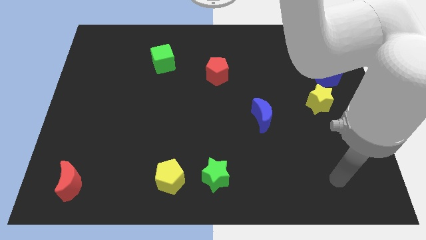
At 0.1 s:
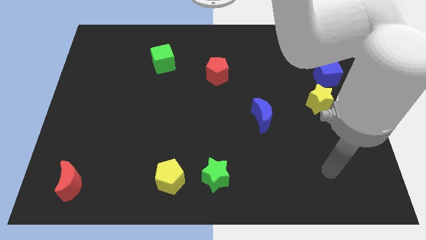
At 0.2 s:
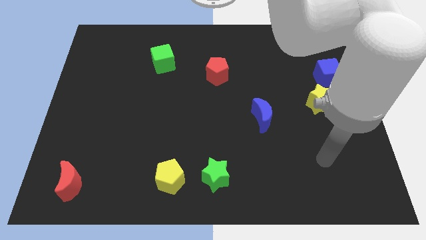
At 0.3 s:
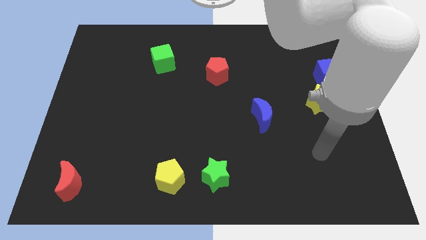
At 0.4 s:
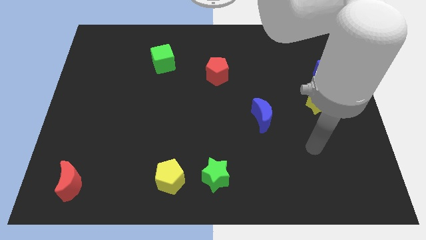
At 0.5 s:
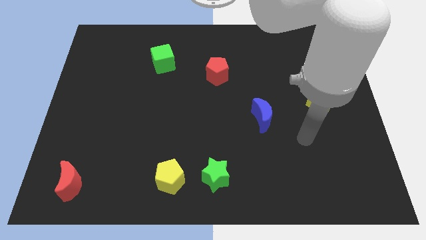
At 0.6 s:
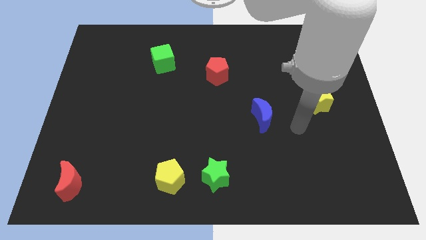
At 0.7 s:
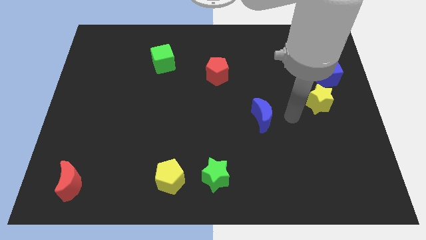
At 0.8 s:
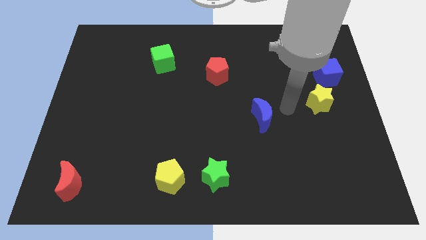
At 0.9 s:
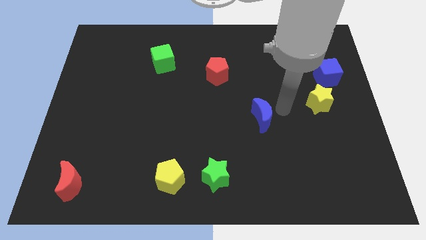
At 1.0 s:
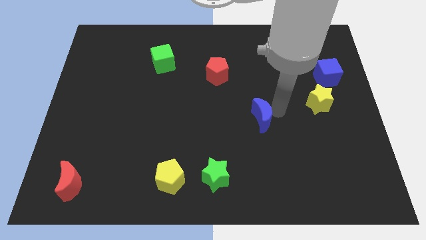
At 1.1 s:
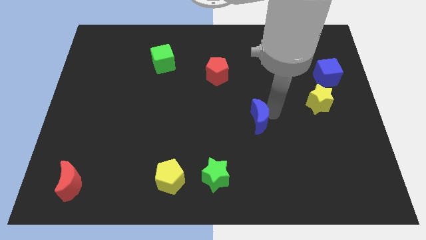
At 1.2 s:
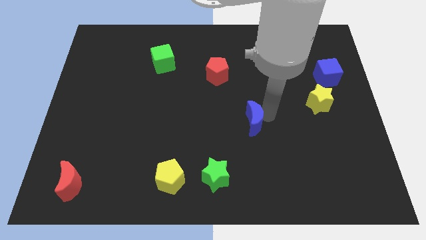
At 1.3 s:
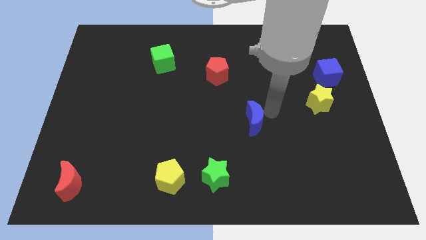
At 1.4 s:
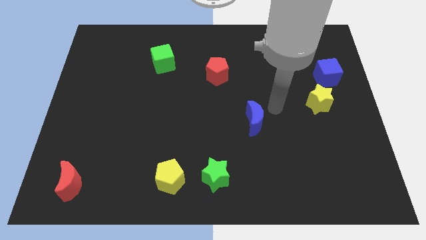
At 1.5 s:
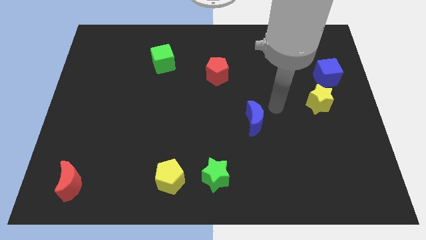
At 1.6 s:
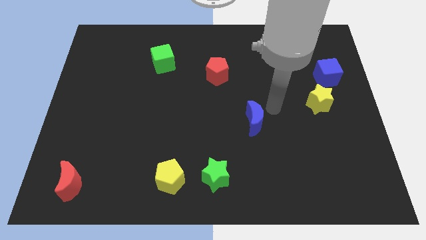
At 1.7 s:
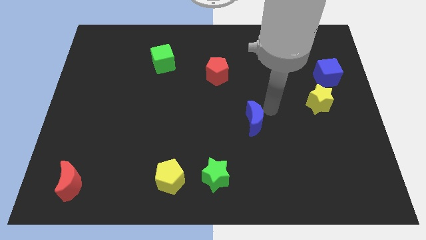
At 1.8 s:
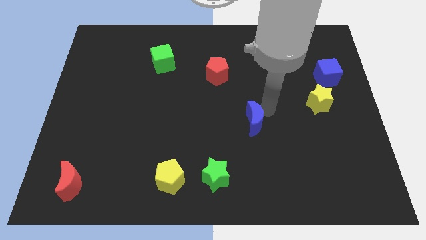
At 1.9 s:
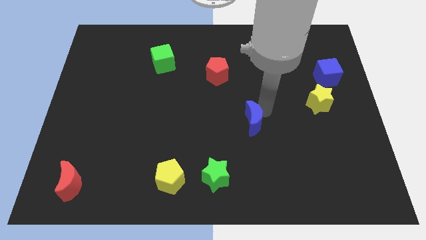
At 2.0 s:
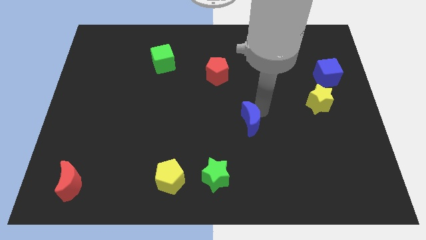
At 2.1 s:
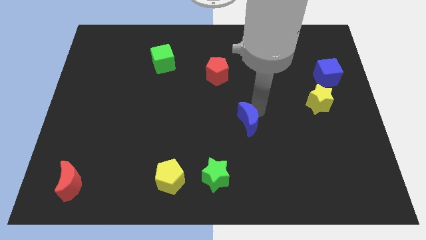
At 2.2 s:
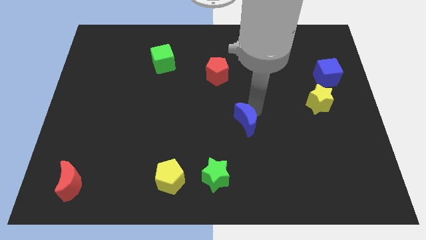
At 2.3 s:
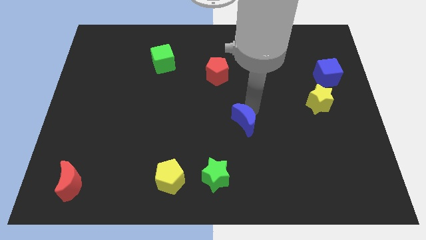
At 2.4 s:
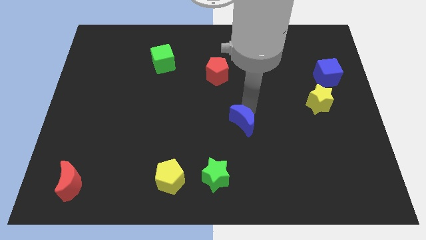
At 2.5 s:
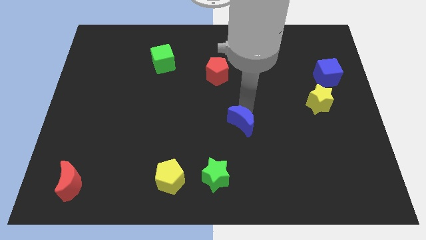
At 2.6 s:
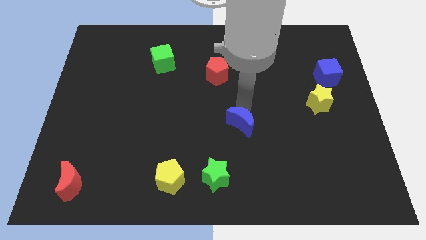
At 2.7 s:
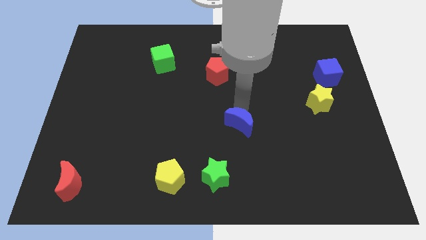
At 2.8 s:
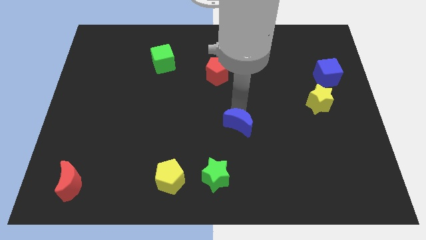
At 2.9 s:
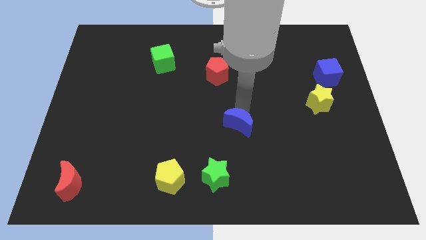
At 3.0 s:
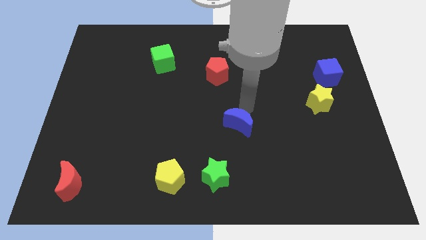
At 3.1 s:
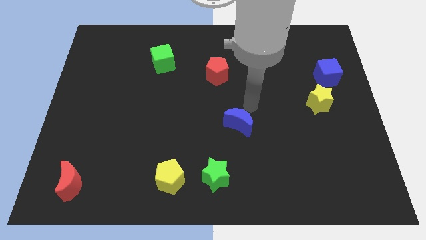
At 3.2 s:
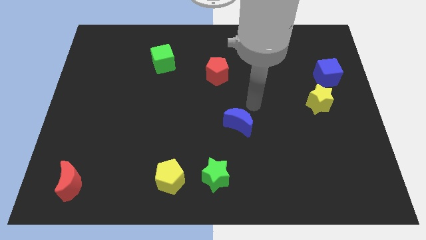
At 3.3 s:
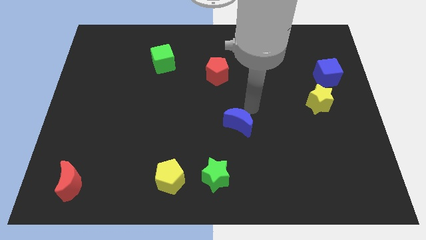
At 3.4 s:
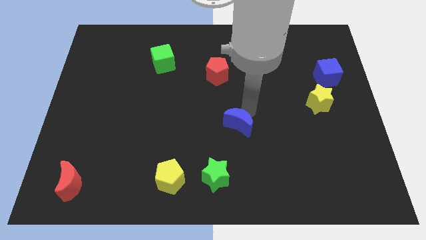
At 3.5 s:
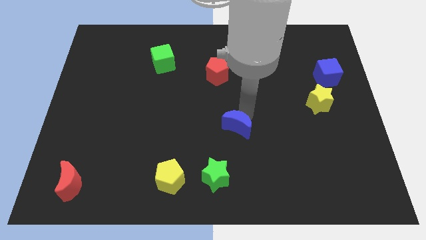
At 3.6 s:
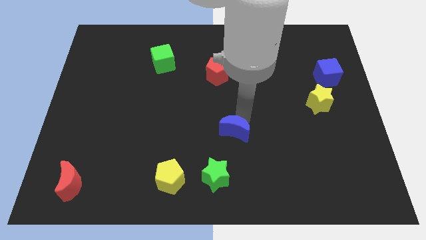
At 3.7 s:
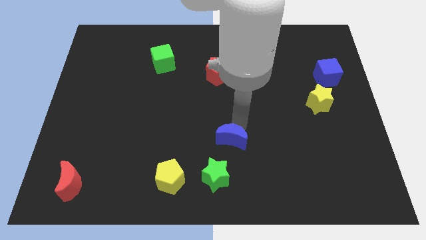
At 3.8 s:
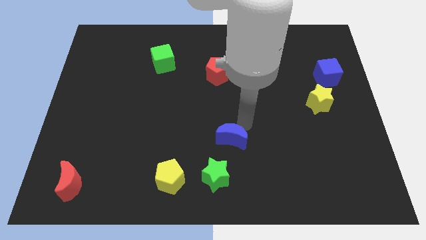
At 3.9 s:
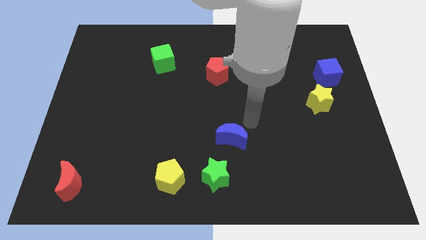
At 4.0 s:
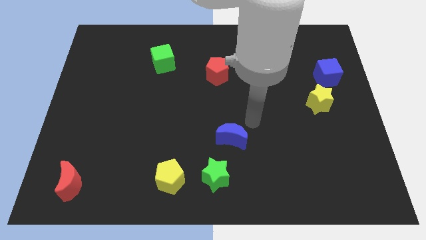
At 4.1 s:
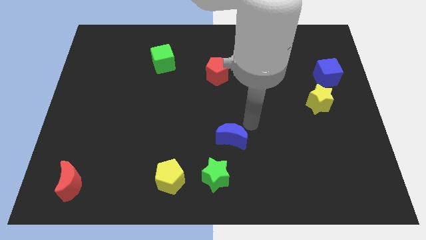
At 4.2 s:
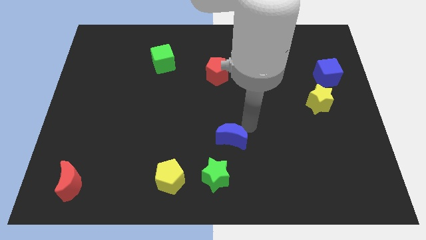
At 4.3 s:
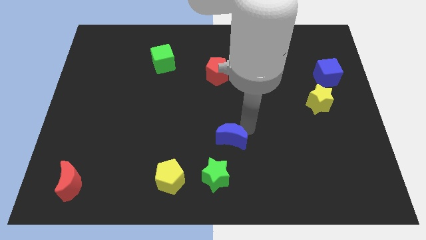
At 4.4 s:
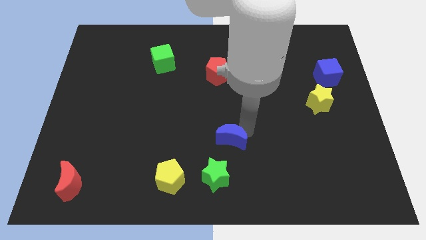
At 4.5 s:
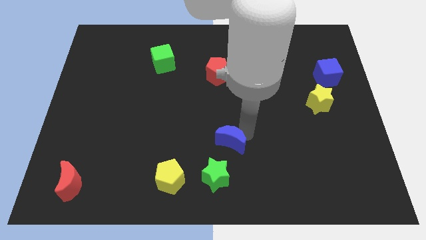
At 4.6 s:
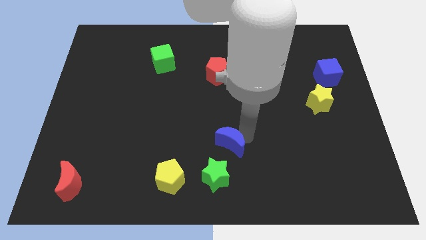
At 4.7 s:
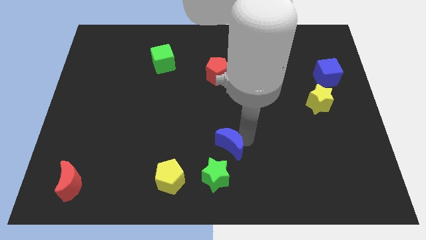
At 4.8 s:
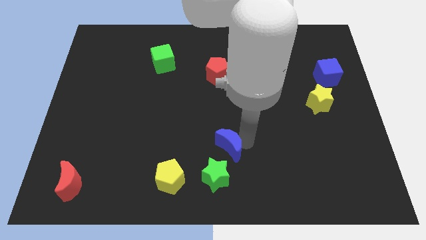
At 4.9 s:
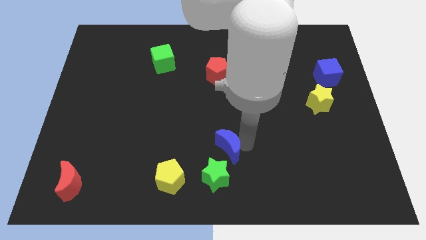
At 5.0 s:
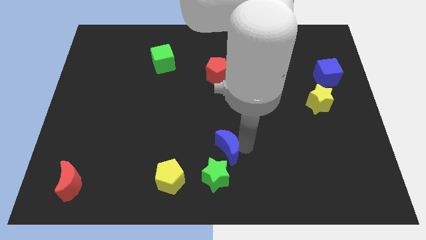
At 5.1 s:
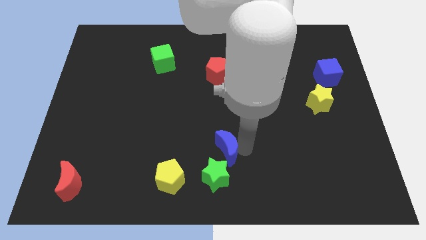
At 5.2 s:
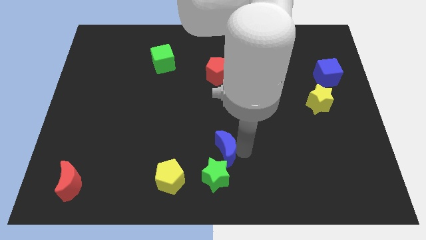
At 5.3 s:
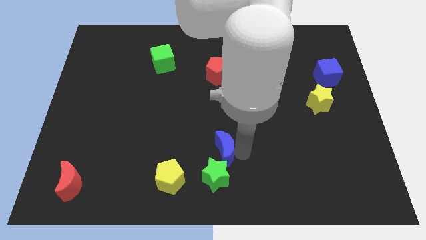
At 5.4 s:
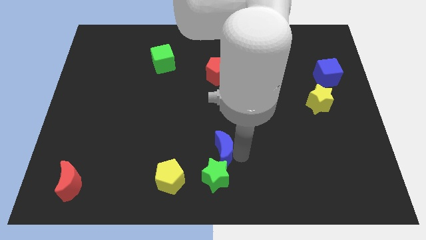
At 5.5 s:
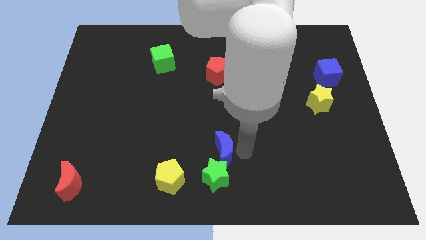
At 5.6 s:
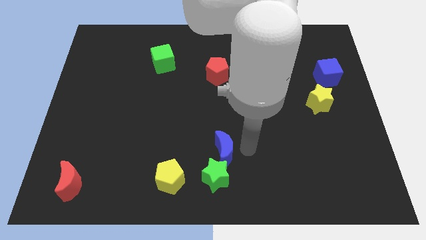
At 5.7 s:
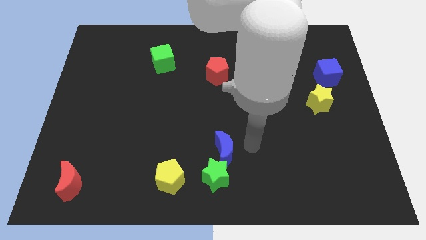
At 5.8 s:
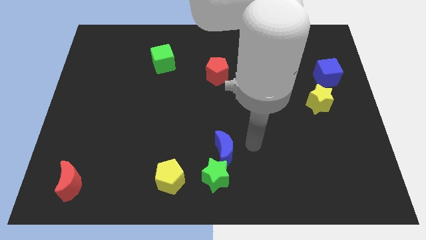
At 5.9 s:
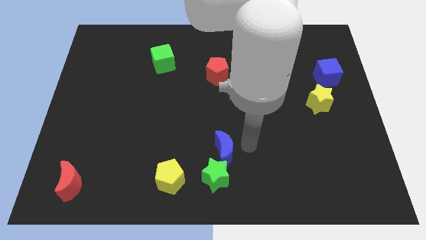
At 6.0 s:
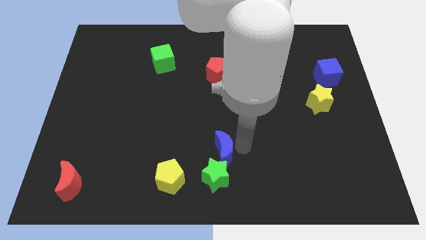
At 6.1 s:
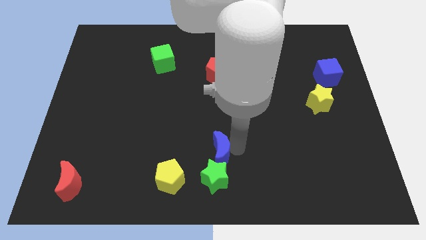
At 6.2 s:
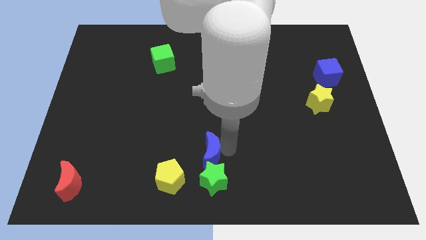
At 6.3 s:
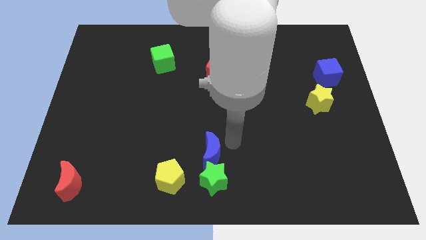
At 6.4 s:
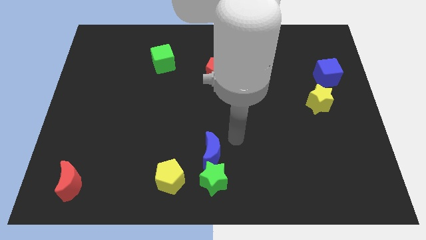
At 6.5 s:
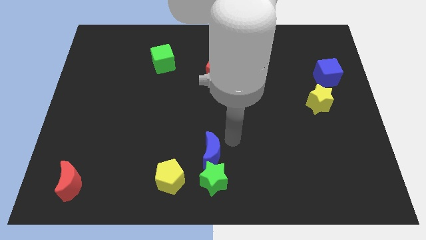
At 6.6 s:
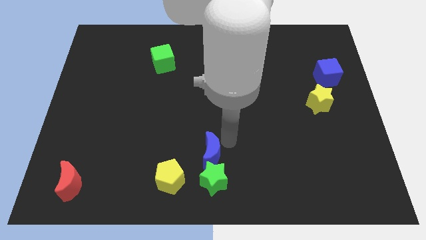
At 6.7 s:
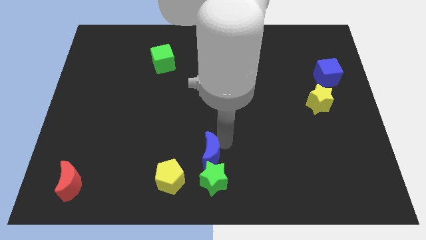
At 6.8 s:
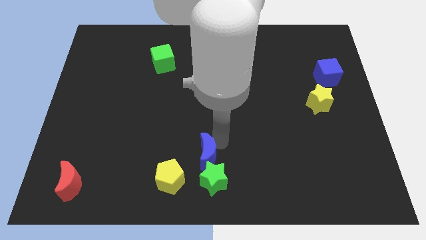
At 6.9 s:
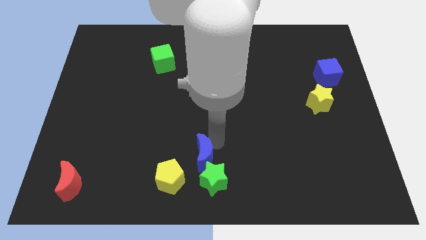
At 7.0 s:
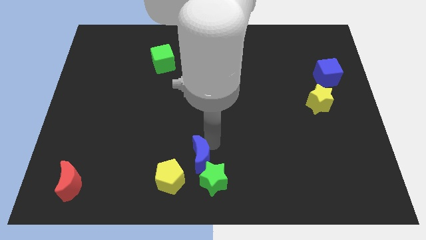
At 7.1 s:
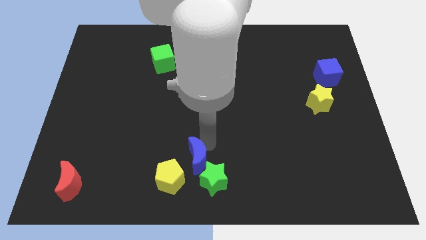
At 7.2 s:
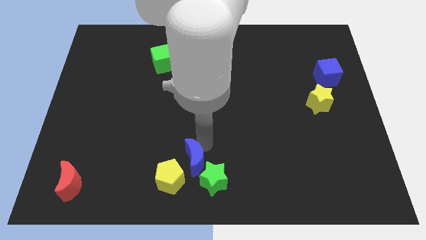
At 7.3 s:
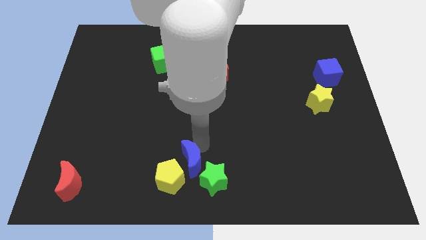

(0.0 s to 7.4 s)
move the blue moon to the yellow pentagon
